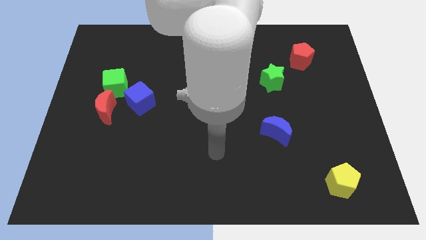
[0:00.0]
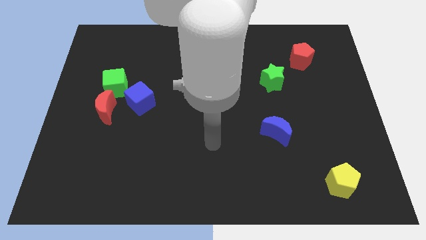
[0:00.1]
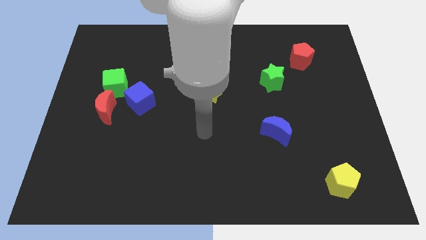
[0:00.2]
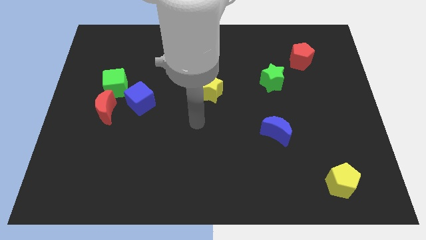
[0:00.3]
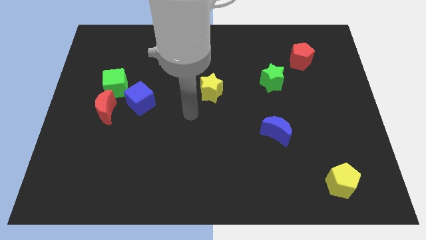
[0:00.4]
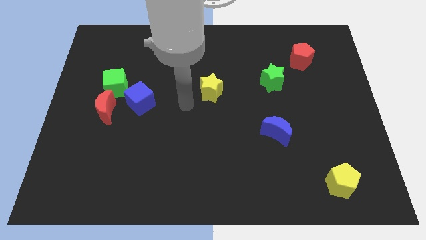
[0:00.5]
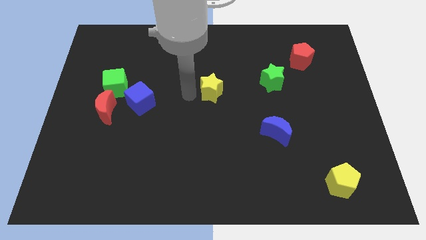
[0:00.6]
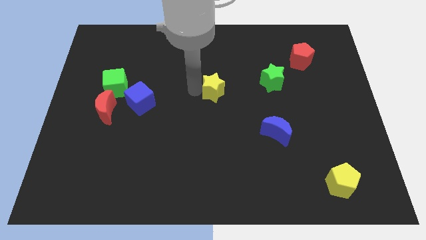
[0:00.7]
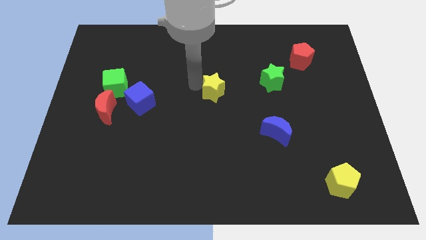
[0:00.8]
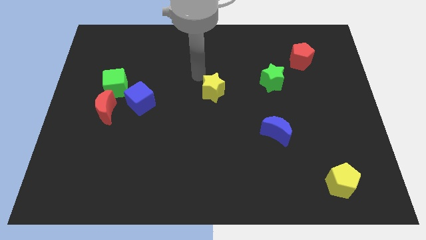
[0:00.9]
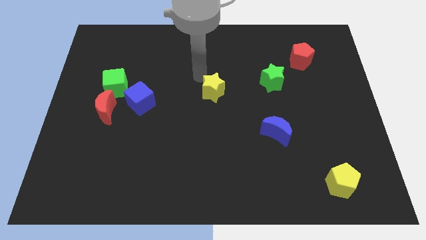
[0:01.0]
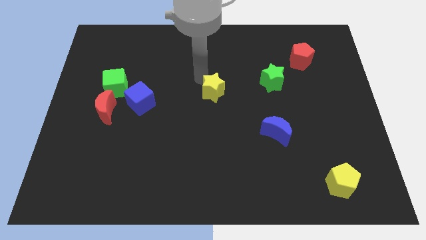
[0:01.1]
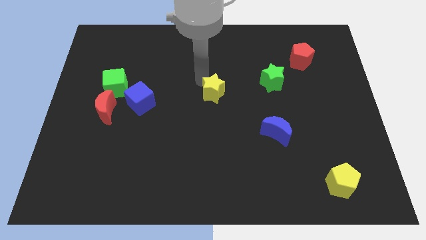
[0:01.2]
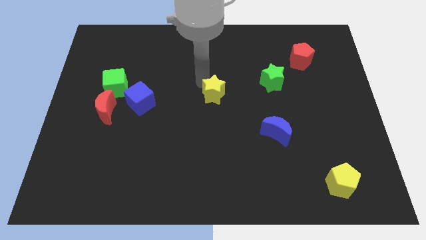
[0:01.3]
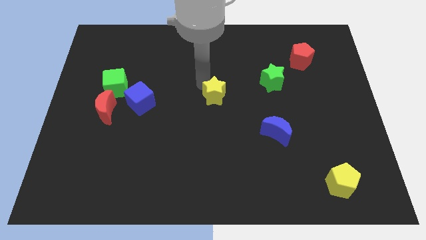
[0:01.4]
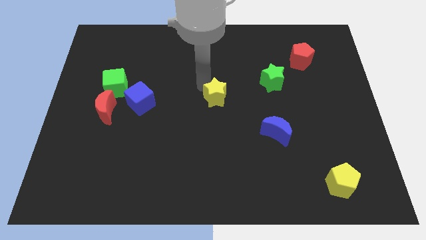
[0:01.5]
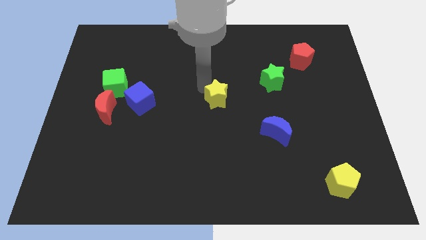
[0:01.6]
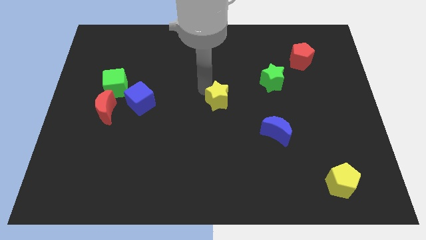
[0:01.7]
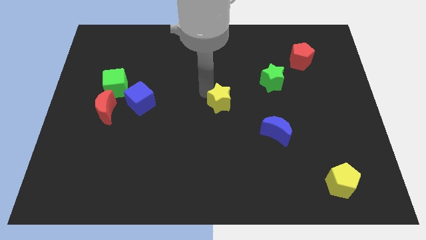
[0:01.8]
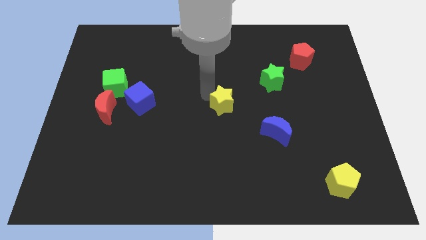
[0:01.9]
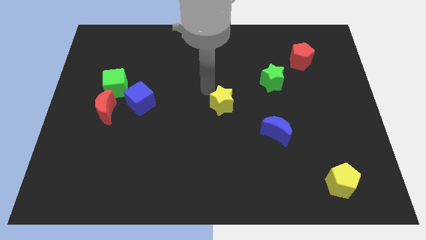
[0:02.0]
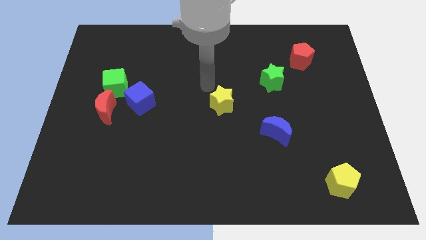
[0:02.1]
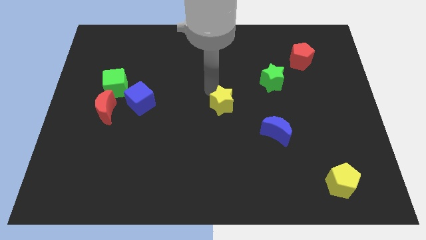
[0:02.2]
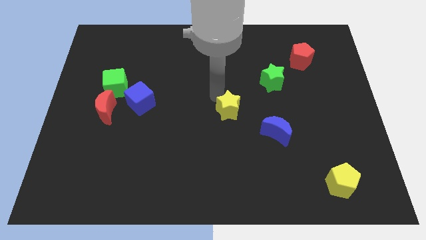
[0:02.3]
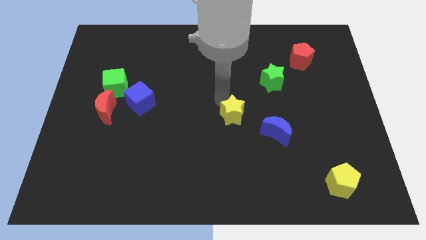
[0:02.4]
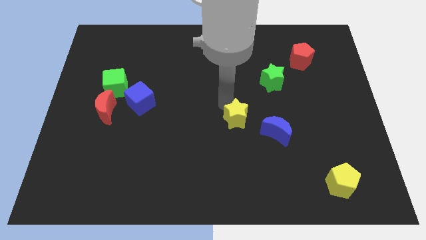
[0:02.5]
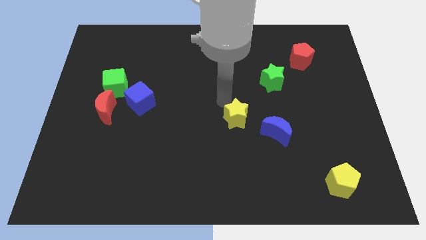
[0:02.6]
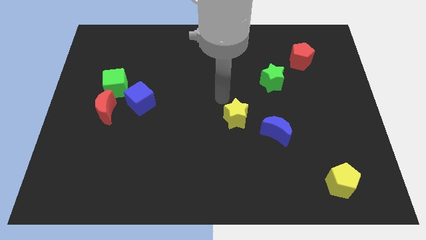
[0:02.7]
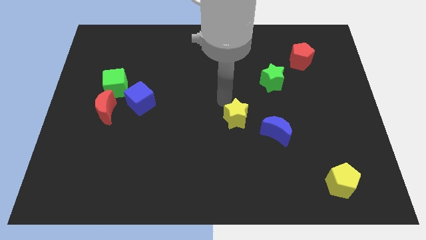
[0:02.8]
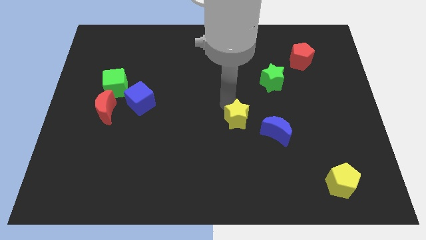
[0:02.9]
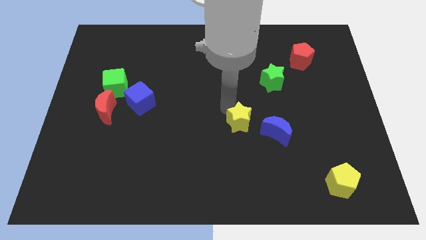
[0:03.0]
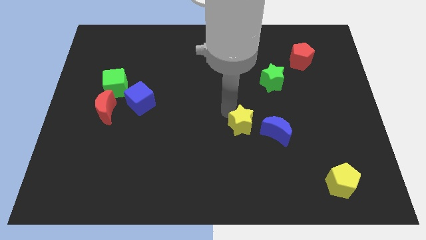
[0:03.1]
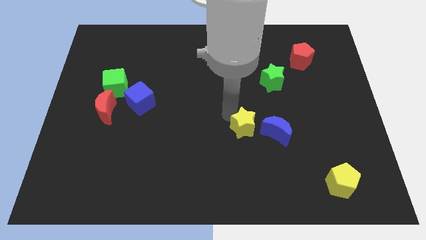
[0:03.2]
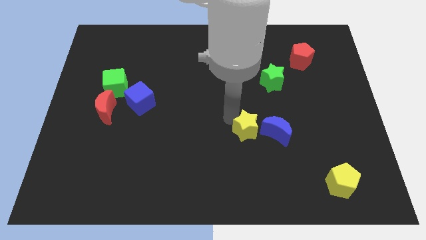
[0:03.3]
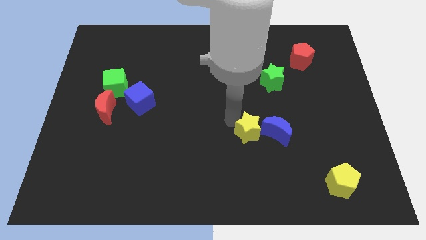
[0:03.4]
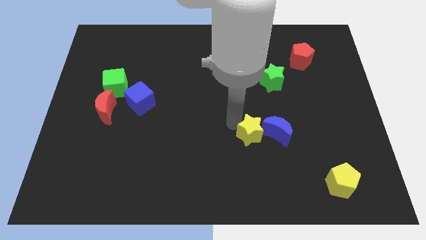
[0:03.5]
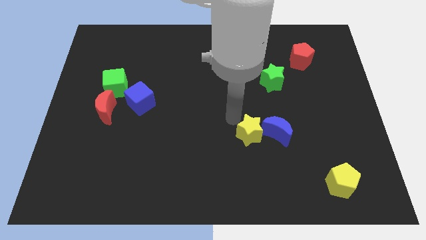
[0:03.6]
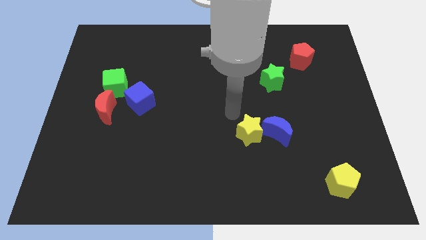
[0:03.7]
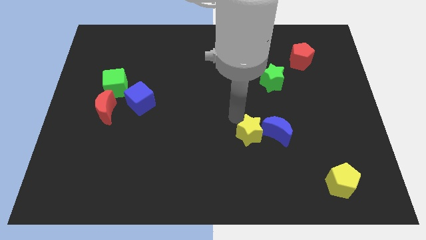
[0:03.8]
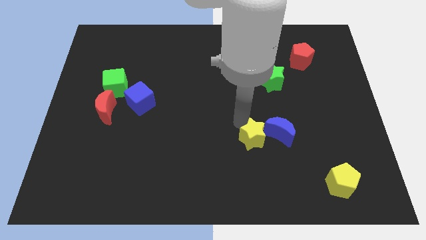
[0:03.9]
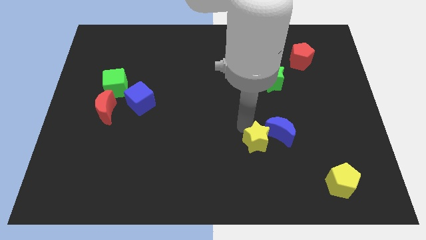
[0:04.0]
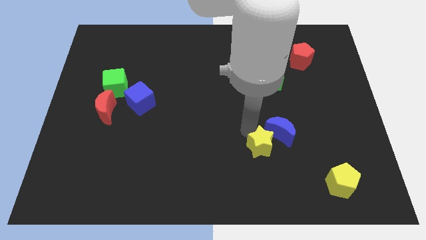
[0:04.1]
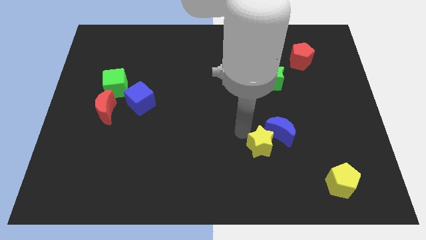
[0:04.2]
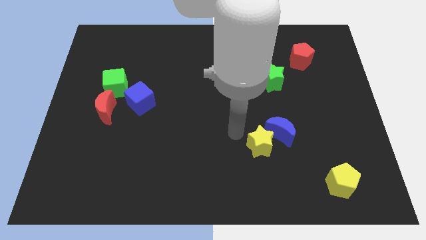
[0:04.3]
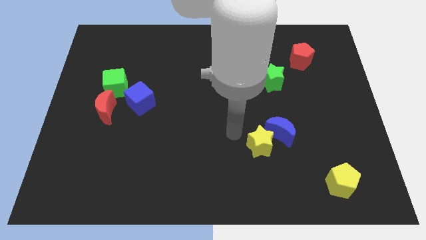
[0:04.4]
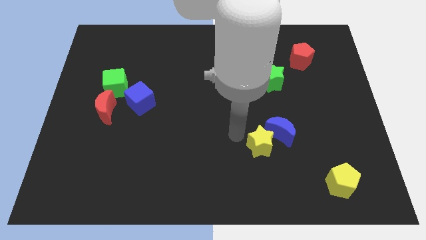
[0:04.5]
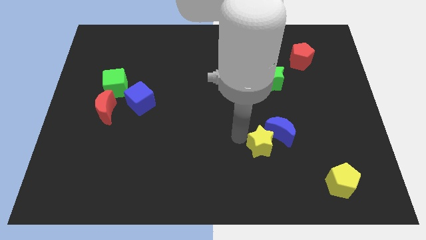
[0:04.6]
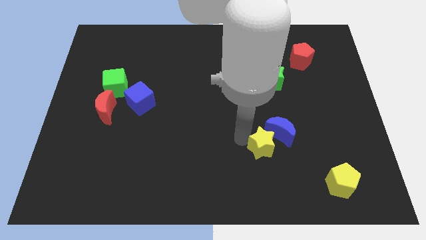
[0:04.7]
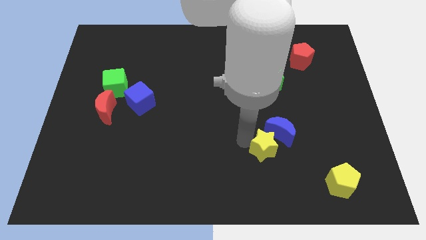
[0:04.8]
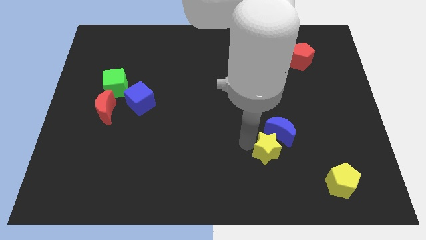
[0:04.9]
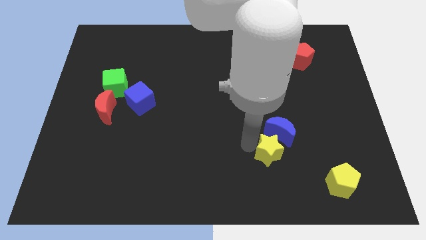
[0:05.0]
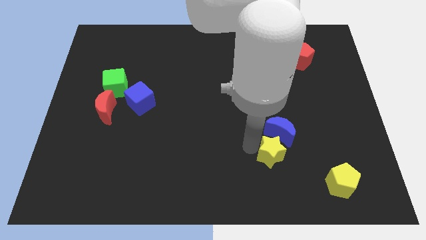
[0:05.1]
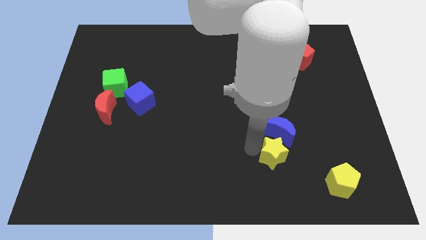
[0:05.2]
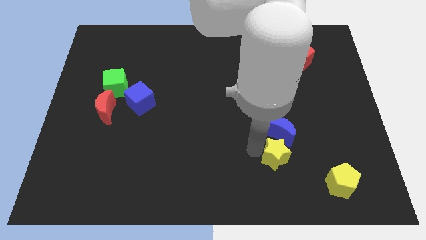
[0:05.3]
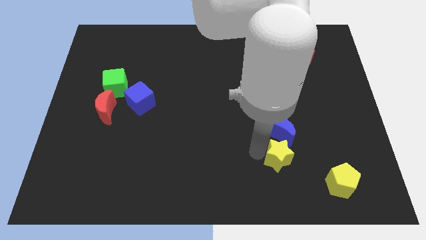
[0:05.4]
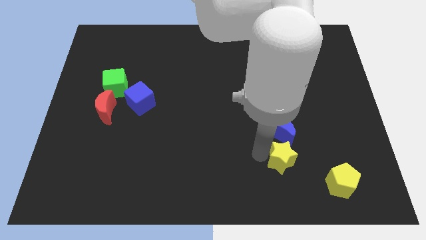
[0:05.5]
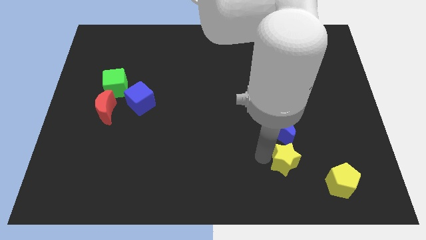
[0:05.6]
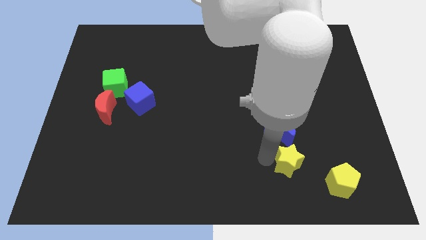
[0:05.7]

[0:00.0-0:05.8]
slide the yellow star to the top left of the yellow pentagon

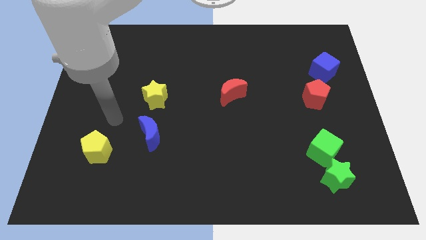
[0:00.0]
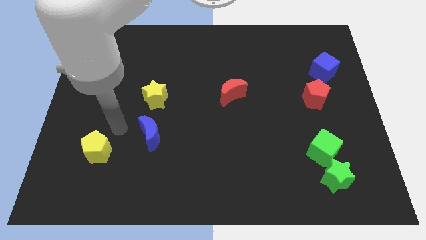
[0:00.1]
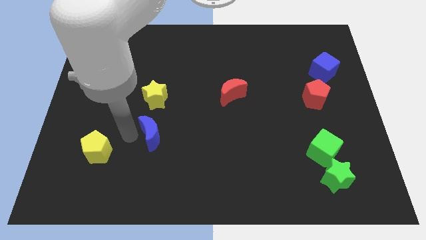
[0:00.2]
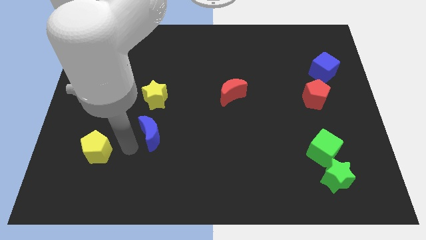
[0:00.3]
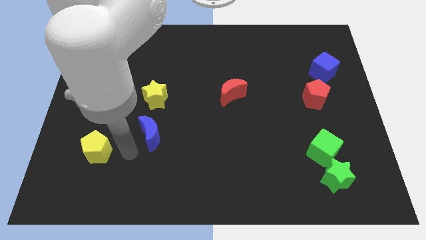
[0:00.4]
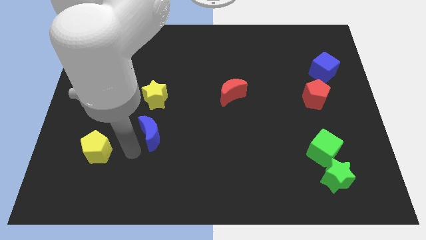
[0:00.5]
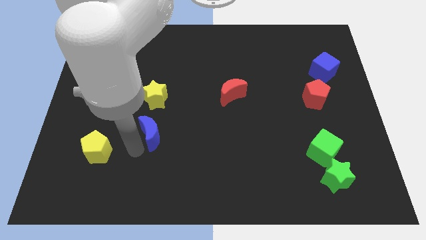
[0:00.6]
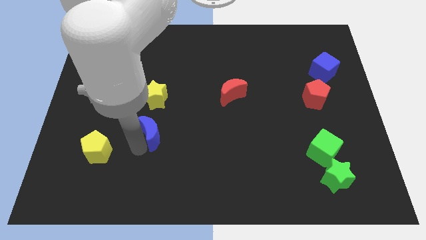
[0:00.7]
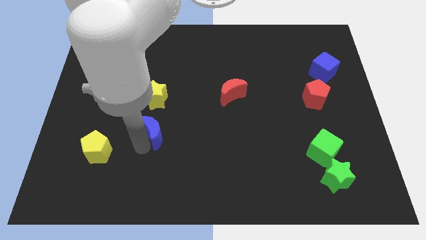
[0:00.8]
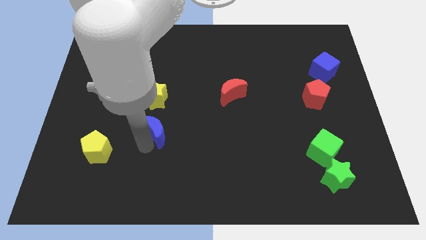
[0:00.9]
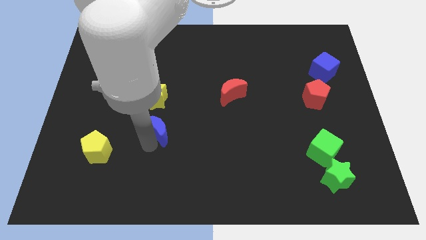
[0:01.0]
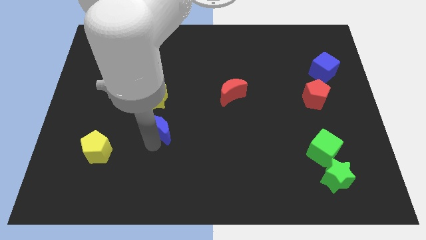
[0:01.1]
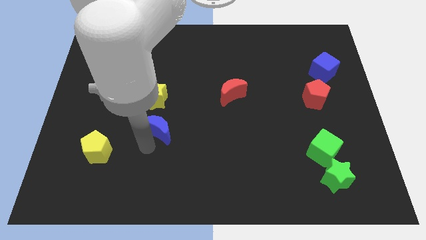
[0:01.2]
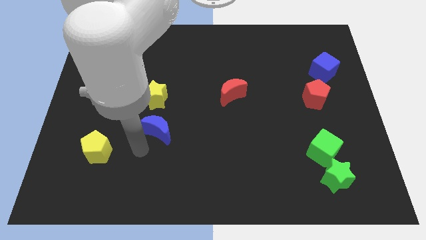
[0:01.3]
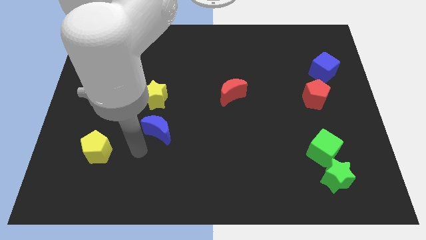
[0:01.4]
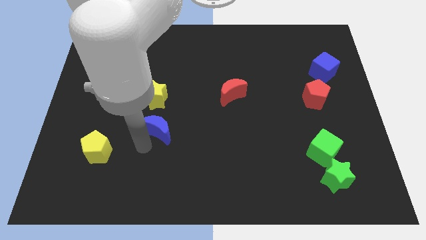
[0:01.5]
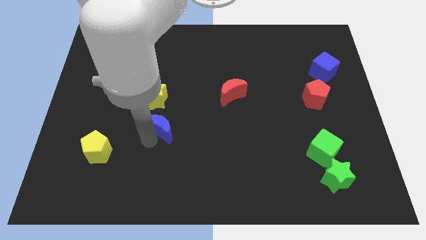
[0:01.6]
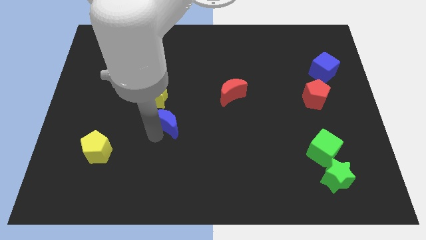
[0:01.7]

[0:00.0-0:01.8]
push the blue moon to the bottom right side of the yellow star
